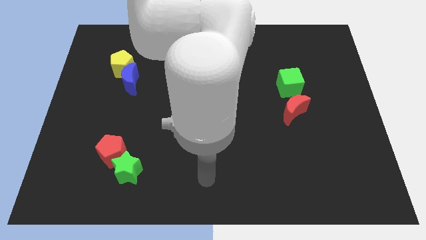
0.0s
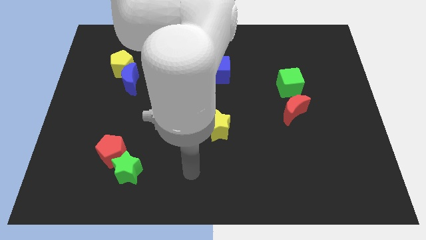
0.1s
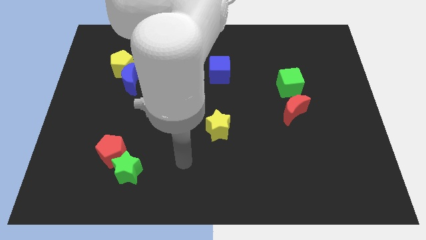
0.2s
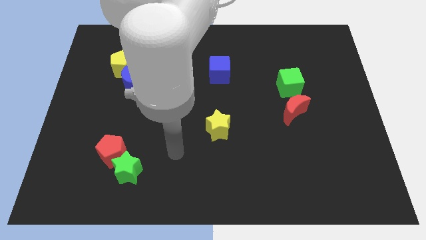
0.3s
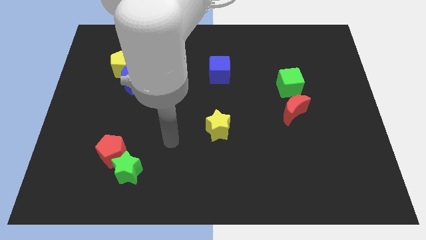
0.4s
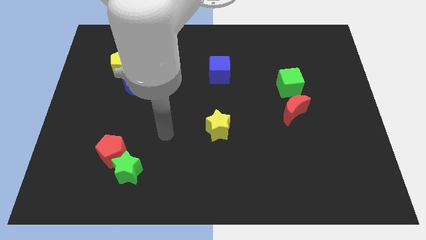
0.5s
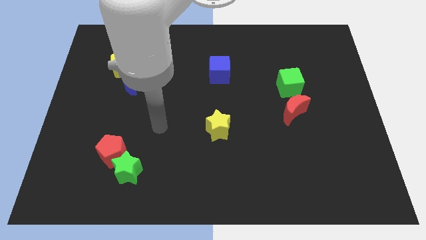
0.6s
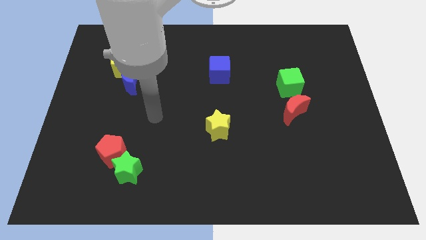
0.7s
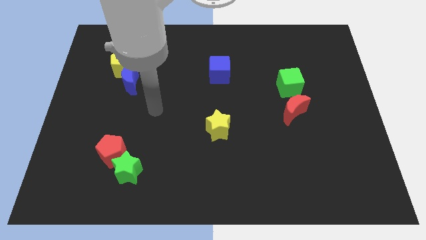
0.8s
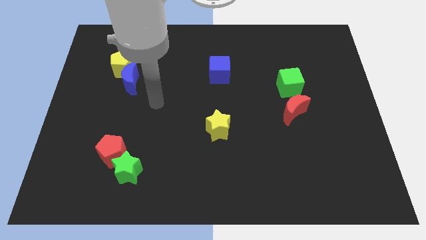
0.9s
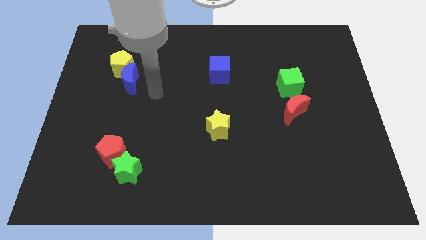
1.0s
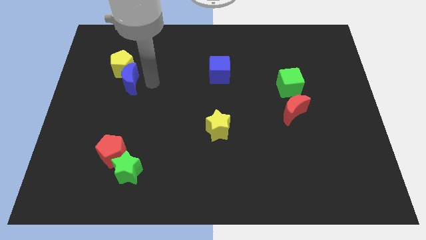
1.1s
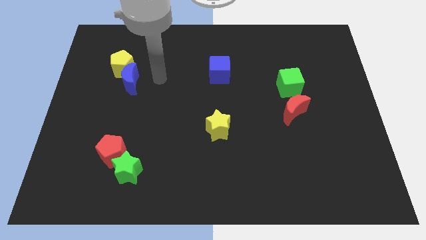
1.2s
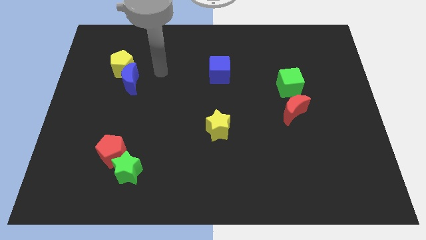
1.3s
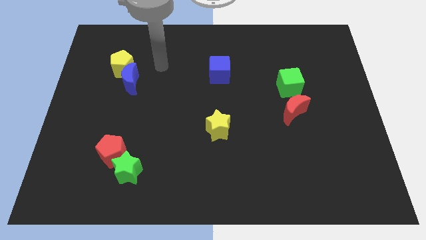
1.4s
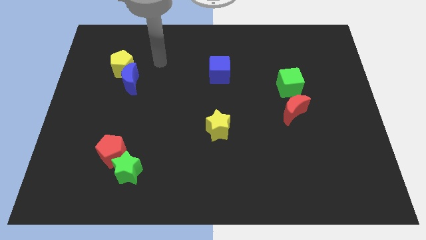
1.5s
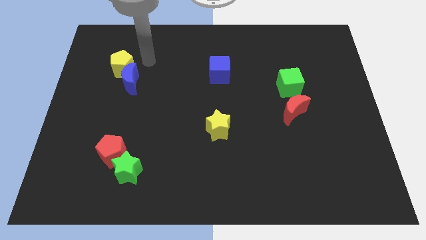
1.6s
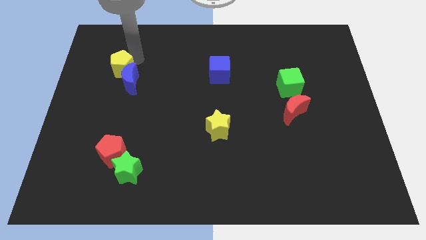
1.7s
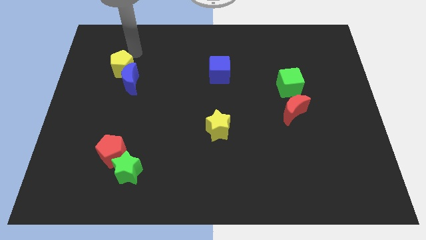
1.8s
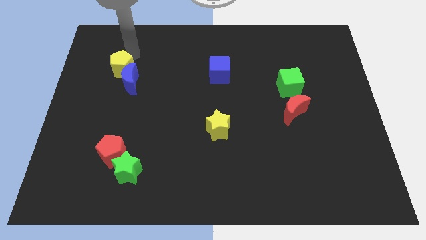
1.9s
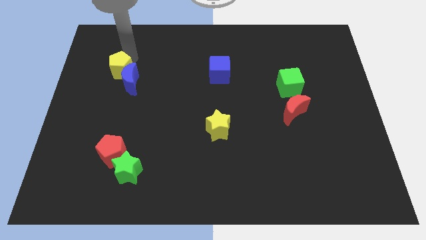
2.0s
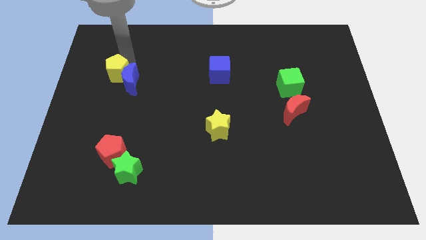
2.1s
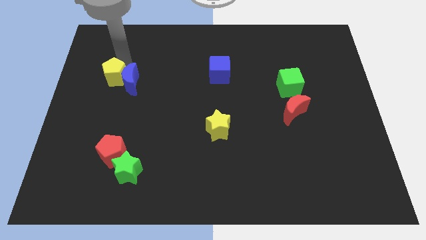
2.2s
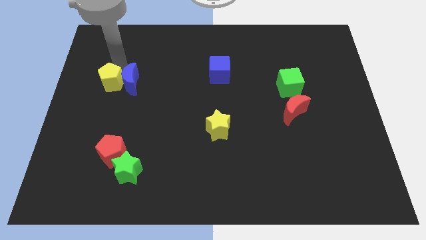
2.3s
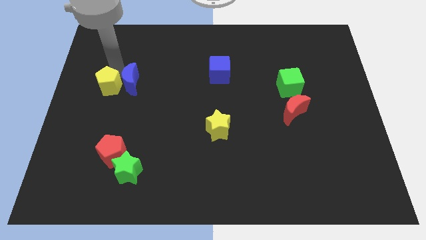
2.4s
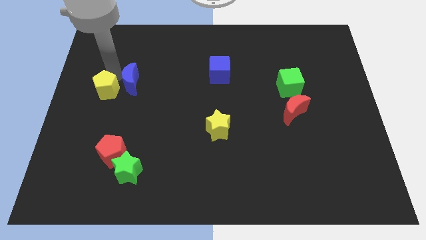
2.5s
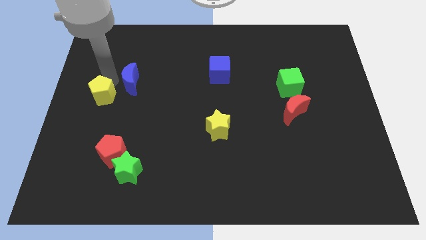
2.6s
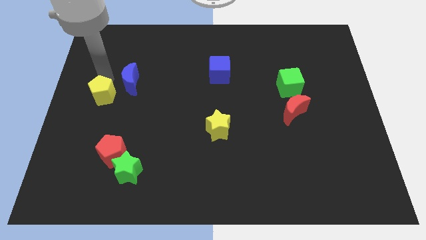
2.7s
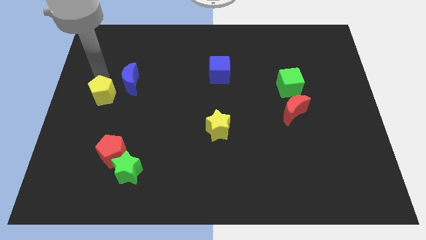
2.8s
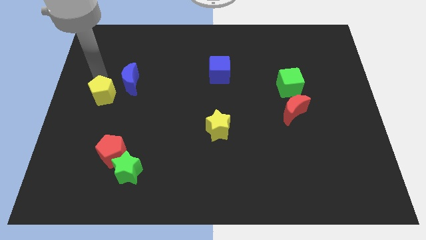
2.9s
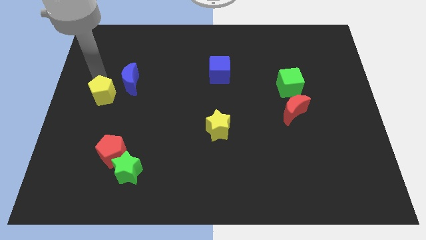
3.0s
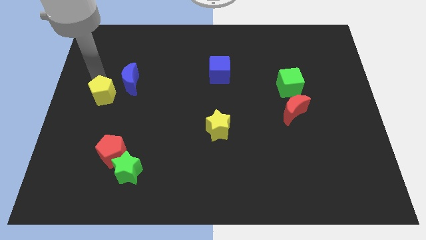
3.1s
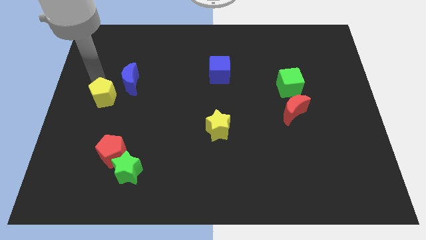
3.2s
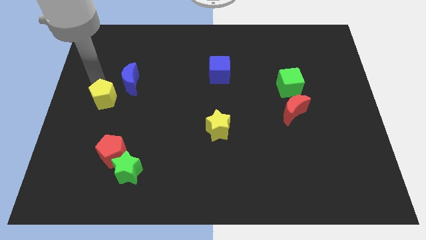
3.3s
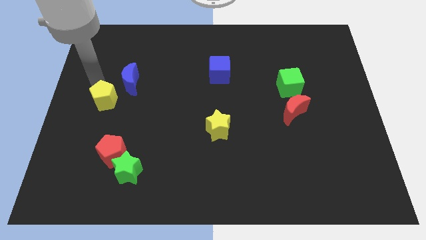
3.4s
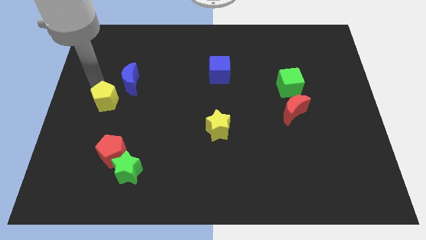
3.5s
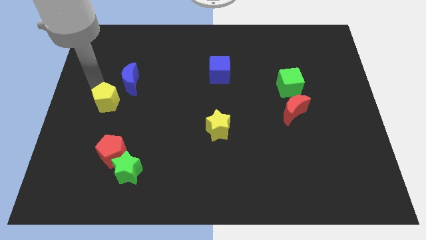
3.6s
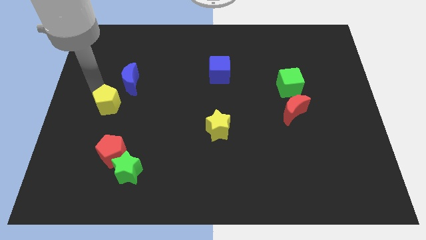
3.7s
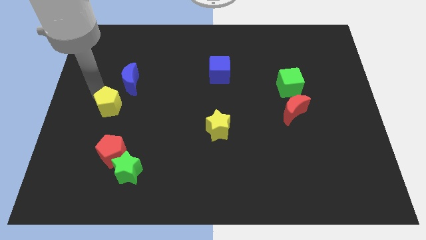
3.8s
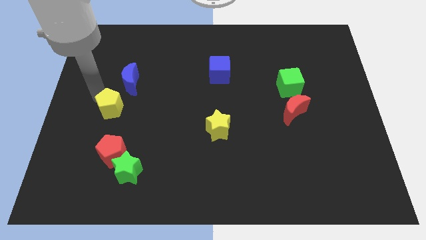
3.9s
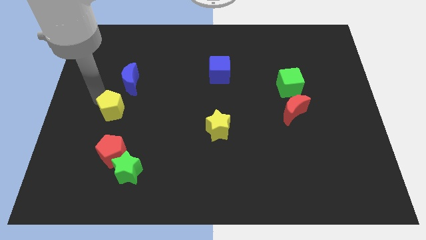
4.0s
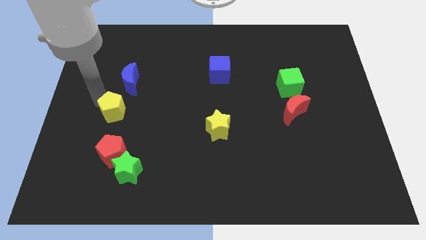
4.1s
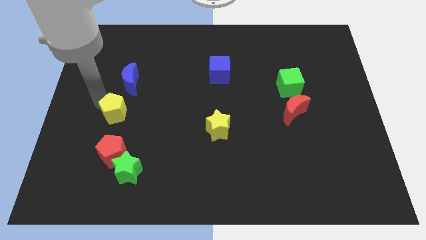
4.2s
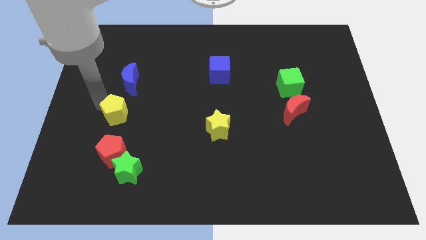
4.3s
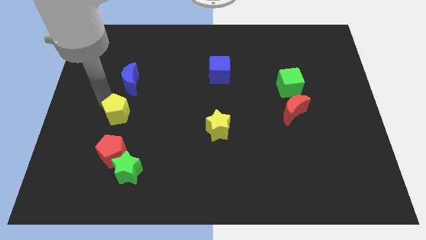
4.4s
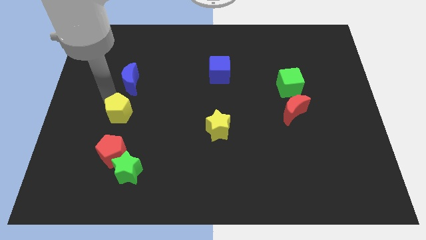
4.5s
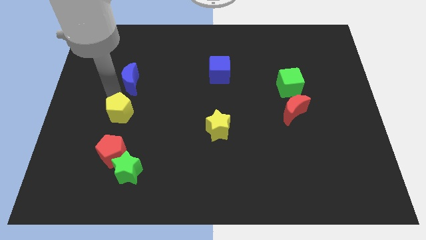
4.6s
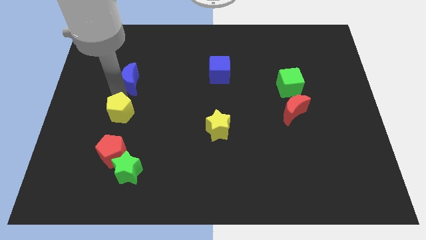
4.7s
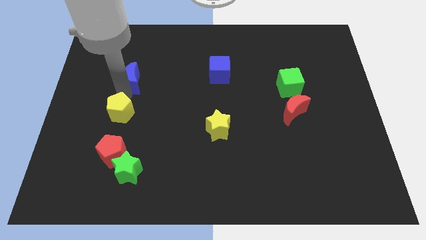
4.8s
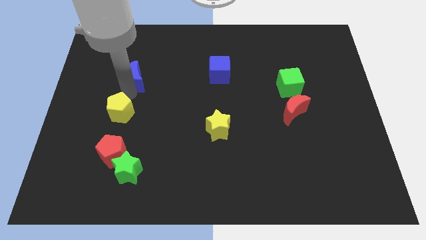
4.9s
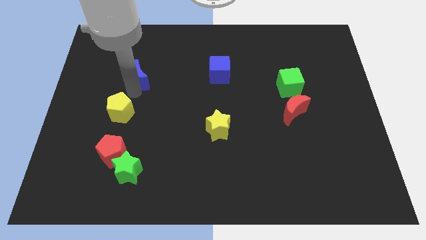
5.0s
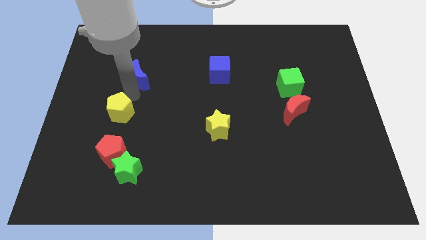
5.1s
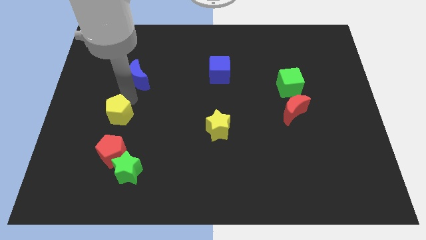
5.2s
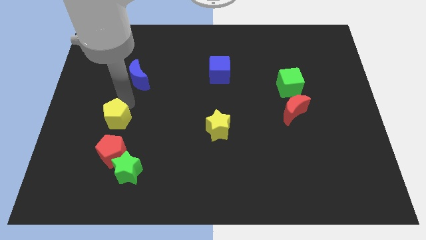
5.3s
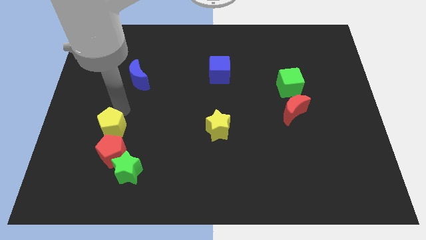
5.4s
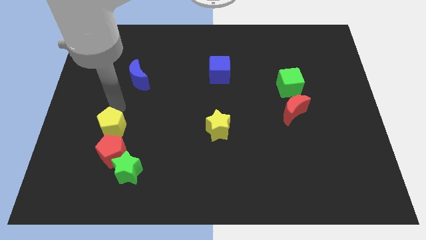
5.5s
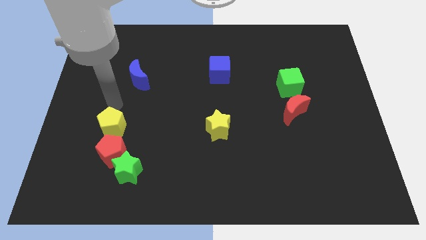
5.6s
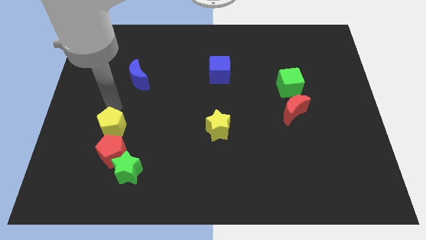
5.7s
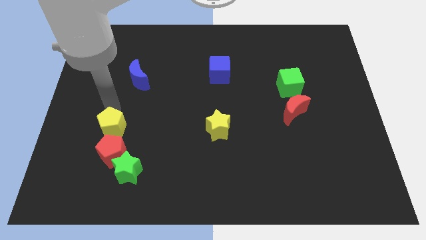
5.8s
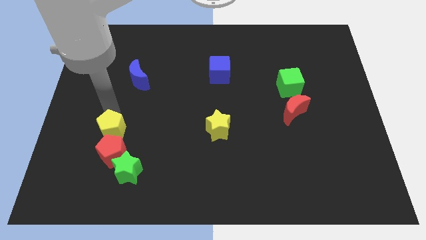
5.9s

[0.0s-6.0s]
put the yellow pentagon close to the red pentagon
